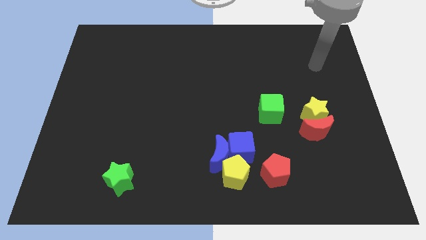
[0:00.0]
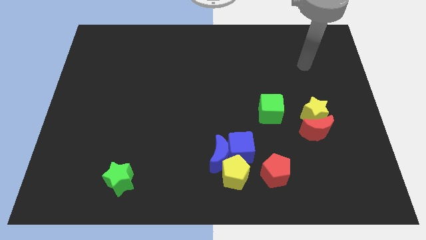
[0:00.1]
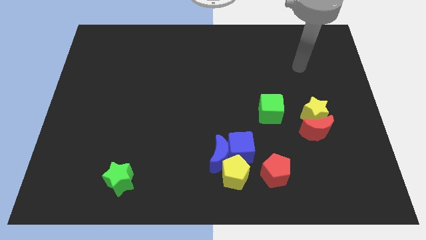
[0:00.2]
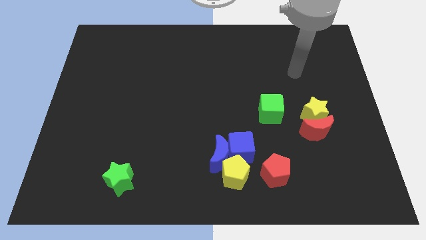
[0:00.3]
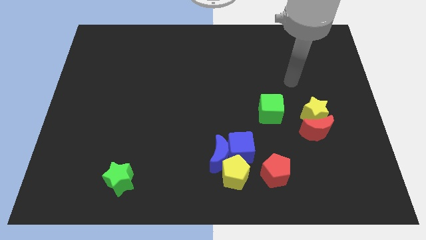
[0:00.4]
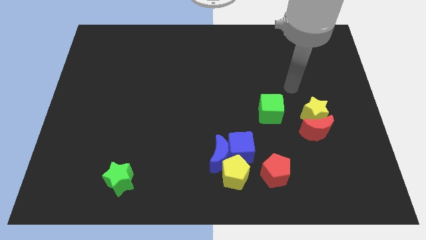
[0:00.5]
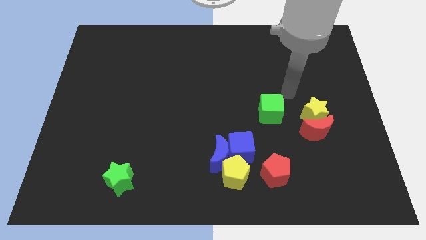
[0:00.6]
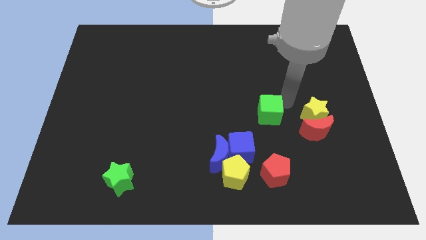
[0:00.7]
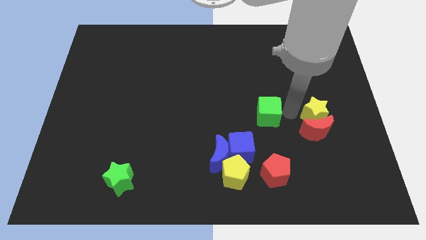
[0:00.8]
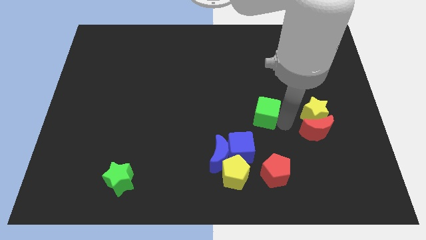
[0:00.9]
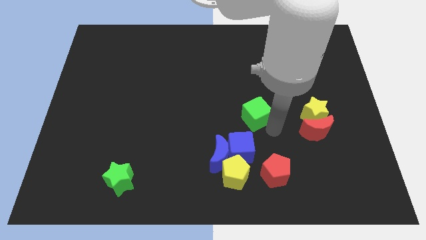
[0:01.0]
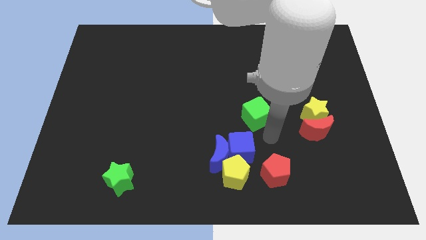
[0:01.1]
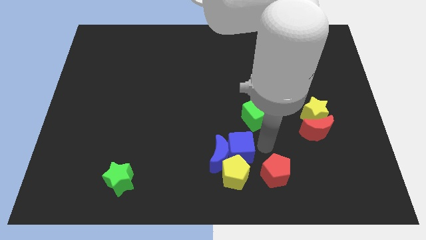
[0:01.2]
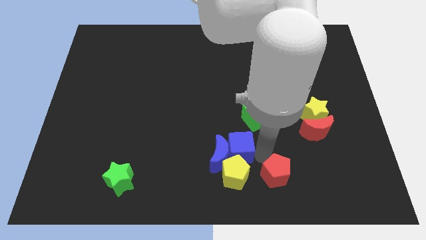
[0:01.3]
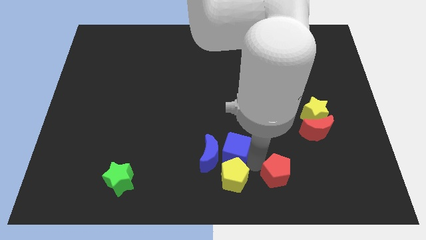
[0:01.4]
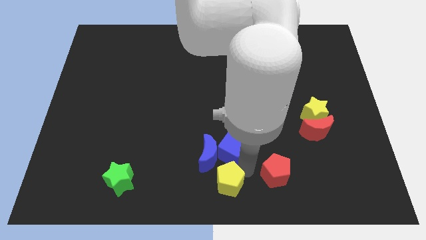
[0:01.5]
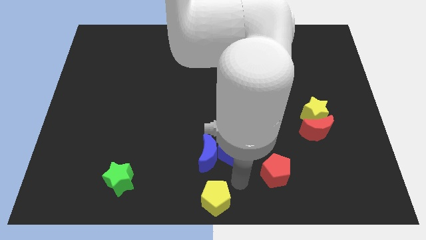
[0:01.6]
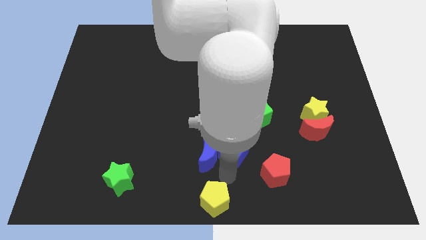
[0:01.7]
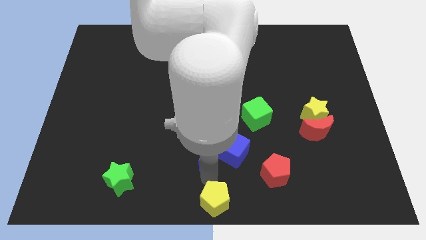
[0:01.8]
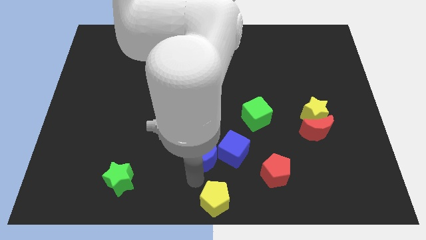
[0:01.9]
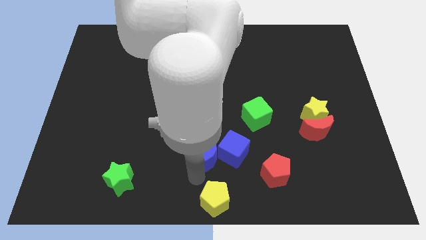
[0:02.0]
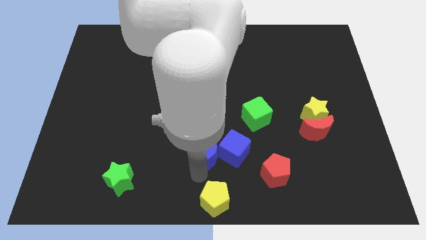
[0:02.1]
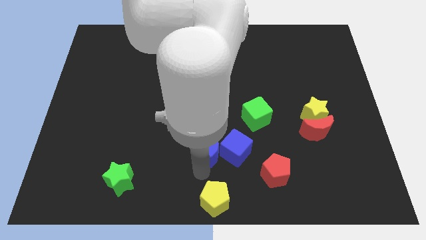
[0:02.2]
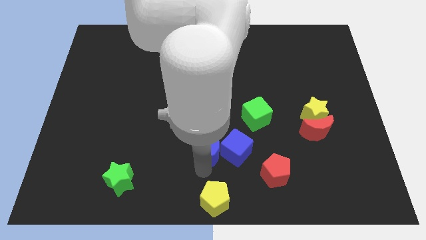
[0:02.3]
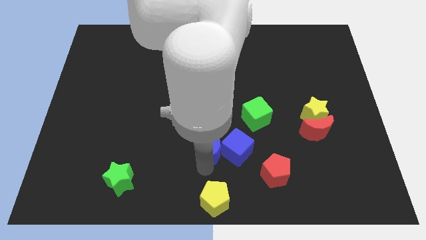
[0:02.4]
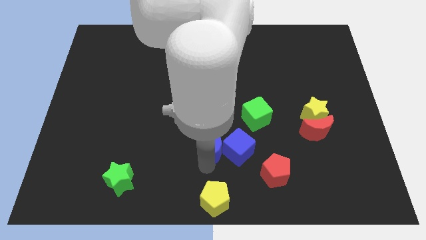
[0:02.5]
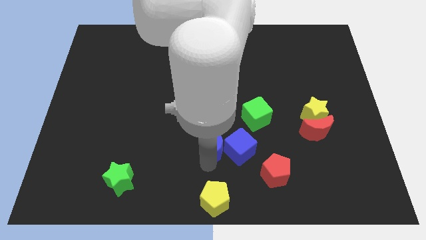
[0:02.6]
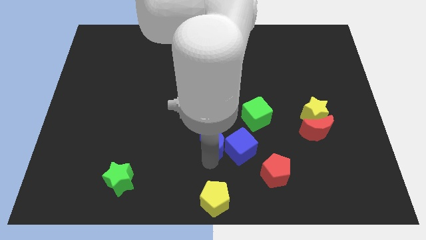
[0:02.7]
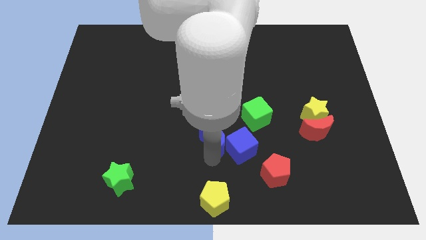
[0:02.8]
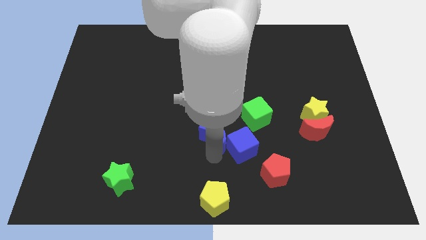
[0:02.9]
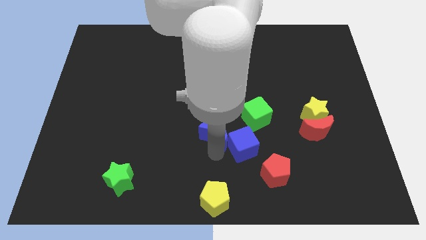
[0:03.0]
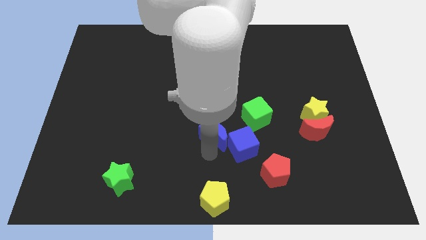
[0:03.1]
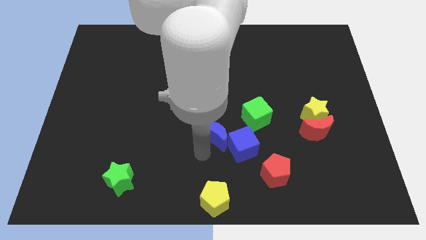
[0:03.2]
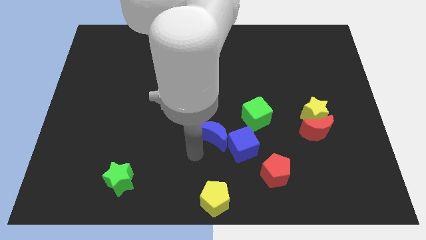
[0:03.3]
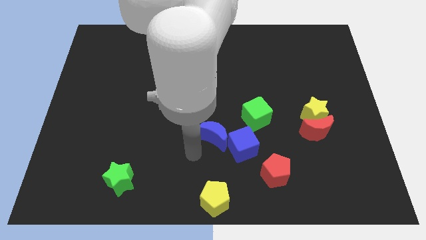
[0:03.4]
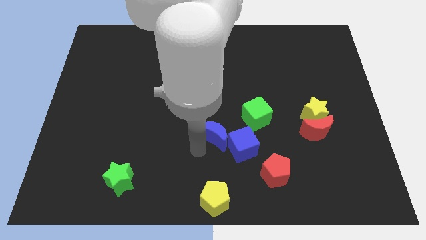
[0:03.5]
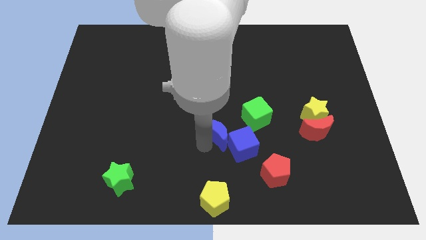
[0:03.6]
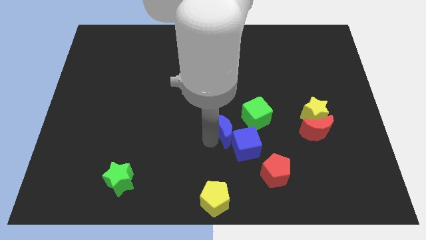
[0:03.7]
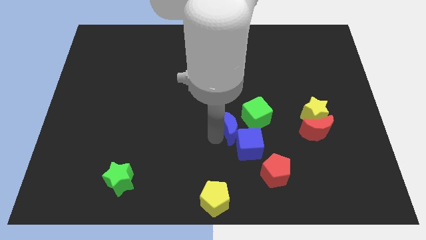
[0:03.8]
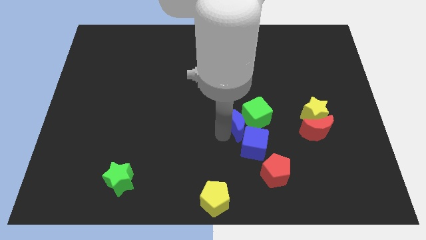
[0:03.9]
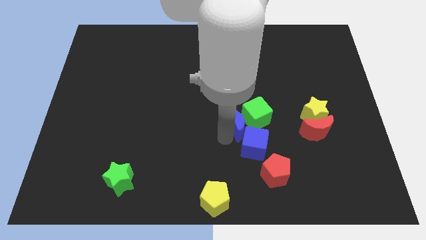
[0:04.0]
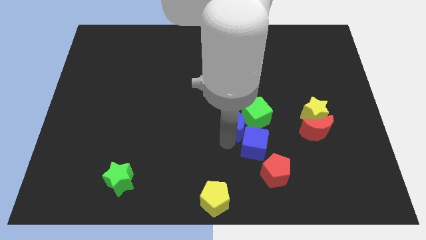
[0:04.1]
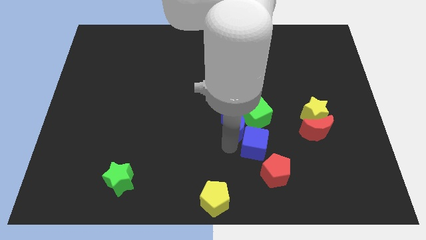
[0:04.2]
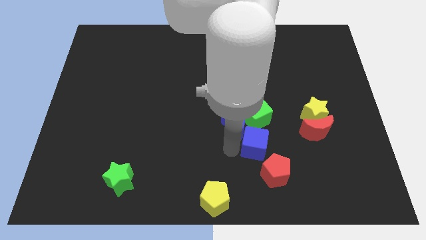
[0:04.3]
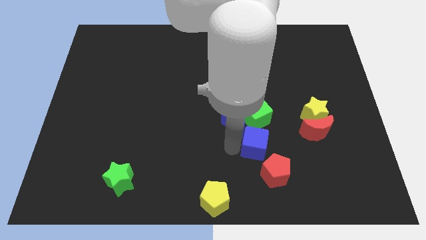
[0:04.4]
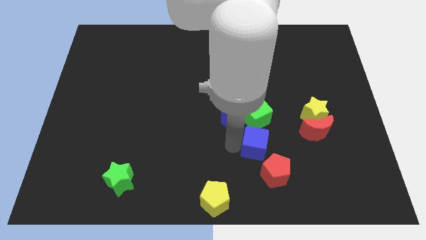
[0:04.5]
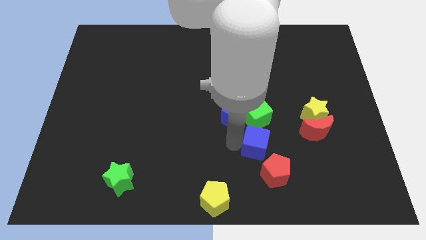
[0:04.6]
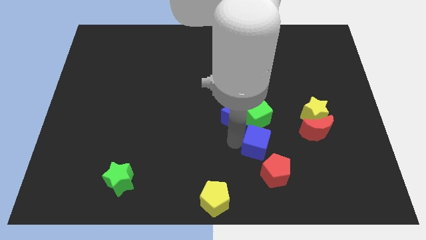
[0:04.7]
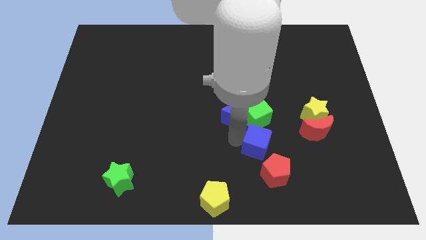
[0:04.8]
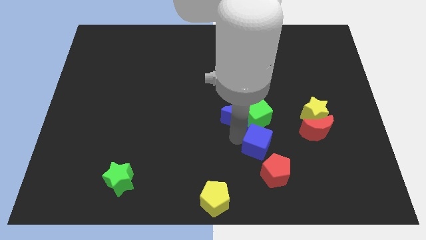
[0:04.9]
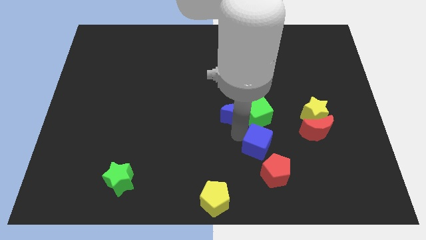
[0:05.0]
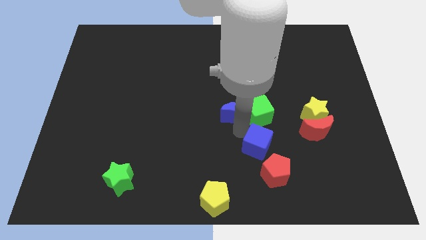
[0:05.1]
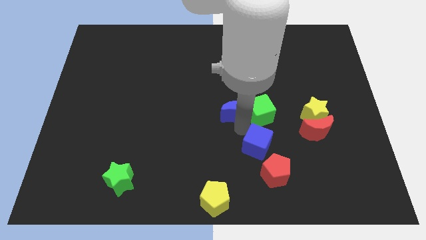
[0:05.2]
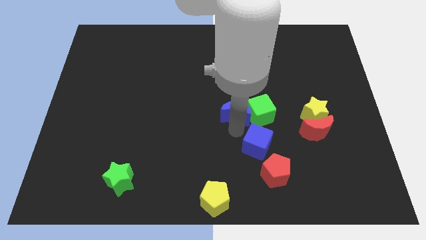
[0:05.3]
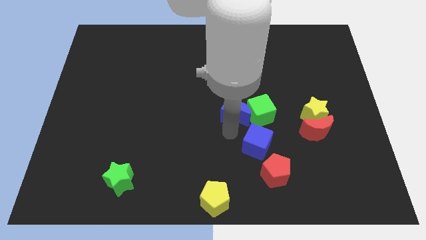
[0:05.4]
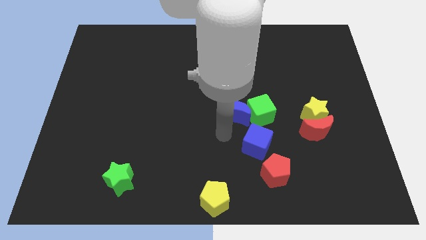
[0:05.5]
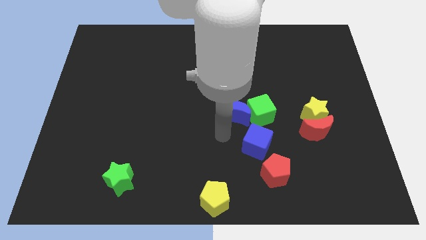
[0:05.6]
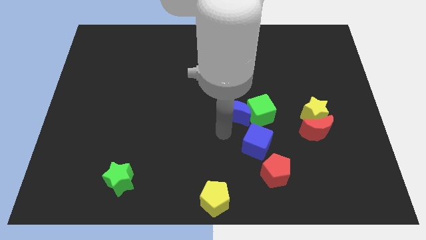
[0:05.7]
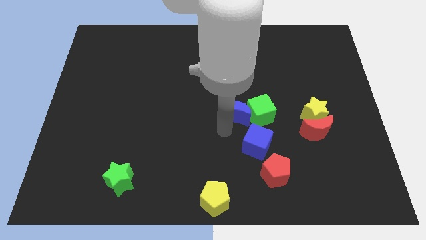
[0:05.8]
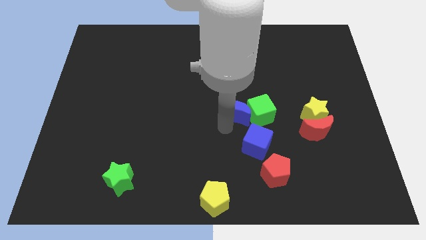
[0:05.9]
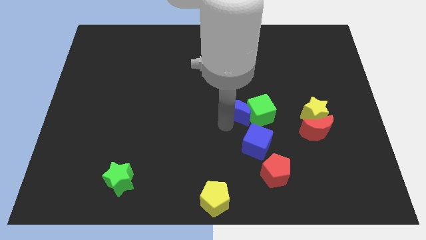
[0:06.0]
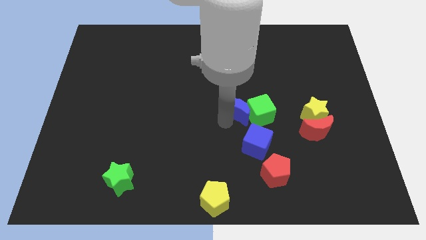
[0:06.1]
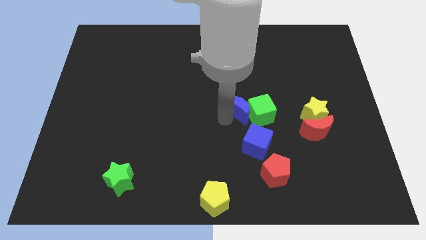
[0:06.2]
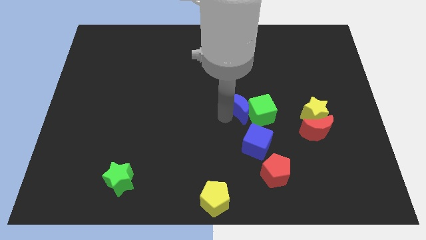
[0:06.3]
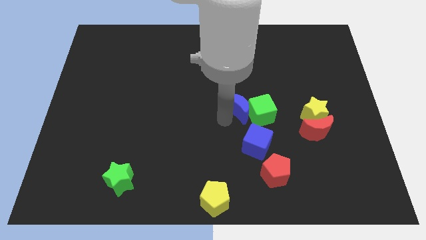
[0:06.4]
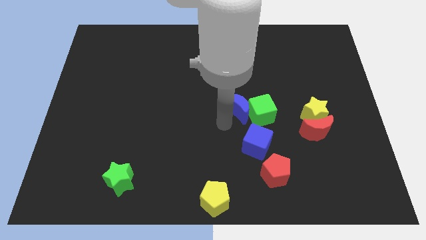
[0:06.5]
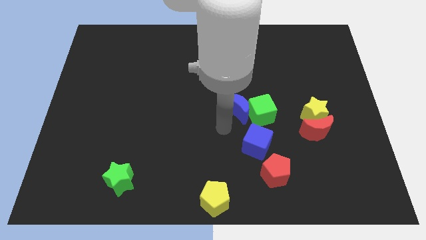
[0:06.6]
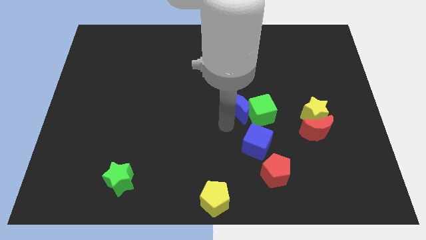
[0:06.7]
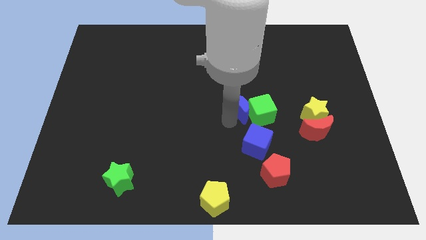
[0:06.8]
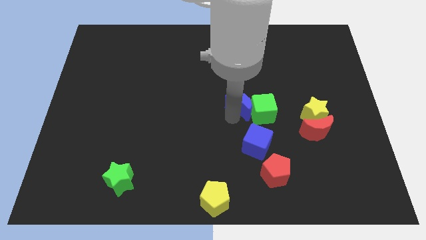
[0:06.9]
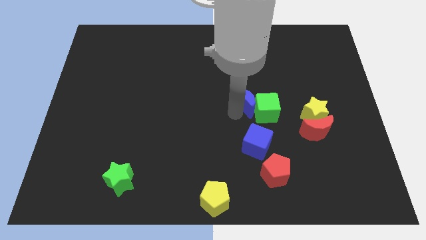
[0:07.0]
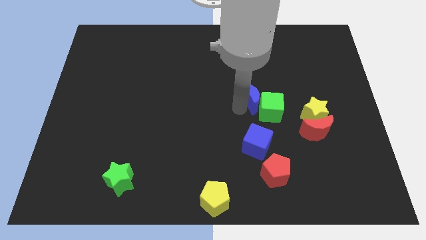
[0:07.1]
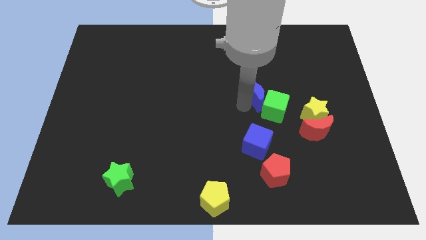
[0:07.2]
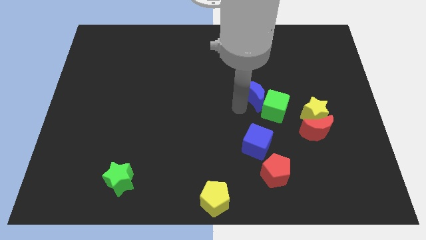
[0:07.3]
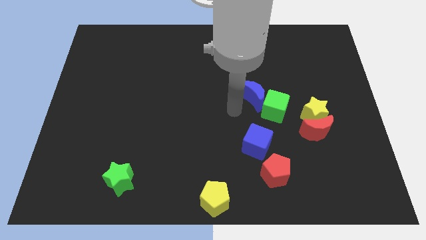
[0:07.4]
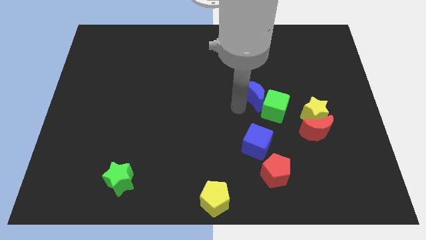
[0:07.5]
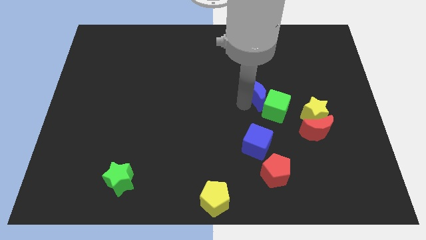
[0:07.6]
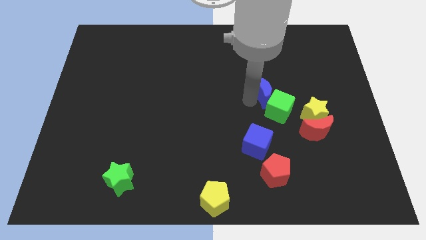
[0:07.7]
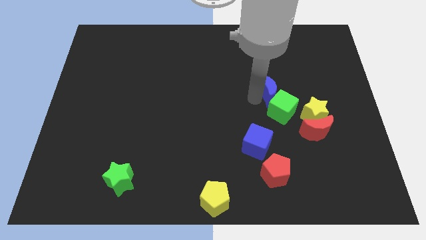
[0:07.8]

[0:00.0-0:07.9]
slide the blue moon upwards and then right

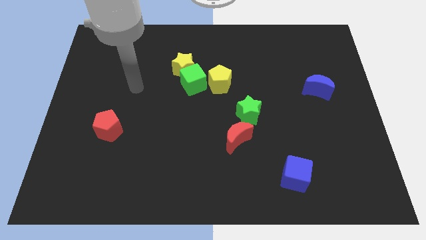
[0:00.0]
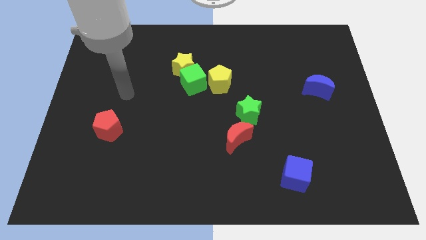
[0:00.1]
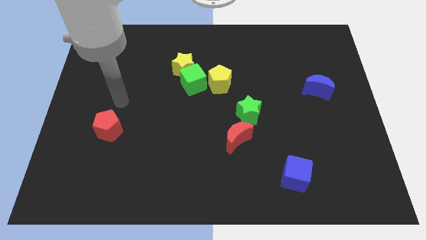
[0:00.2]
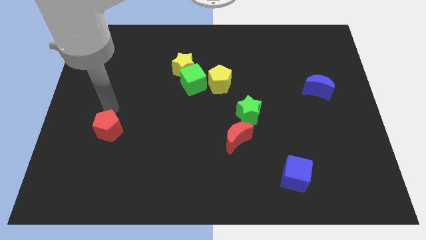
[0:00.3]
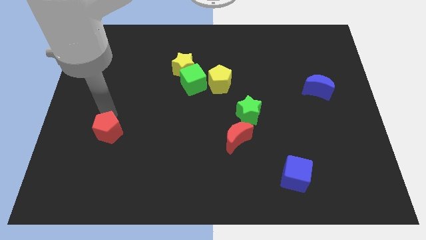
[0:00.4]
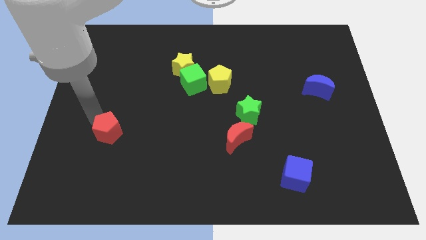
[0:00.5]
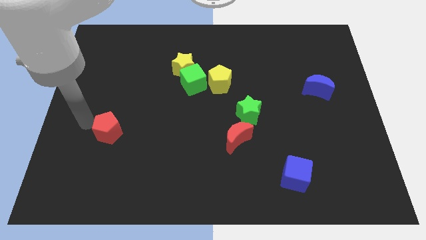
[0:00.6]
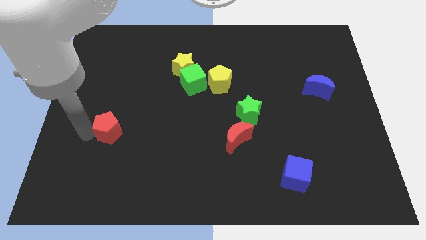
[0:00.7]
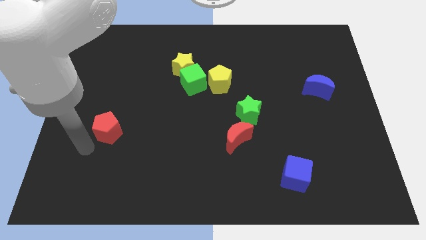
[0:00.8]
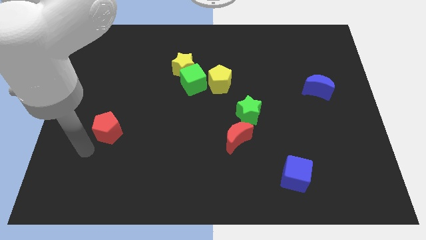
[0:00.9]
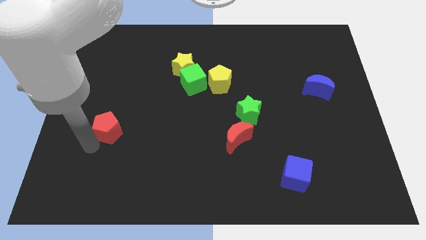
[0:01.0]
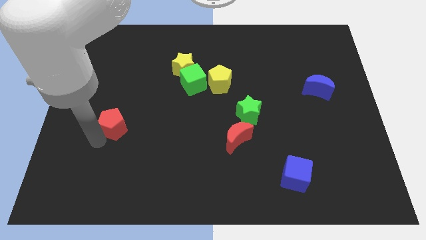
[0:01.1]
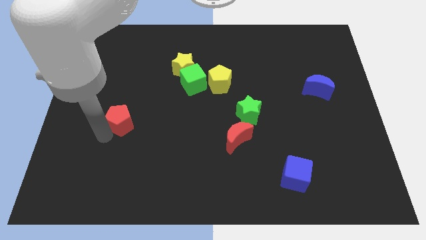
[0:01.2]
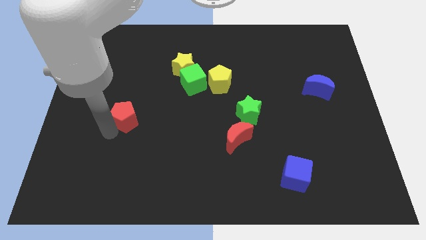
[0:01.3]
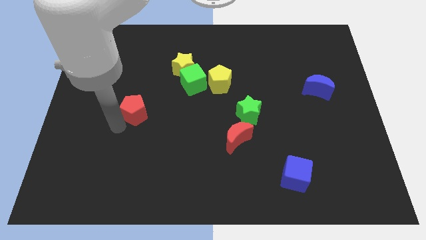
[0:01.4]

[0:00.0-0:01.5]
slightly push the red pentagon up and then right
